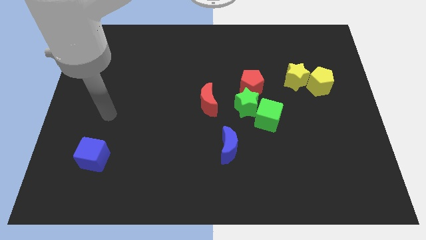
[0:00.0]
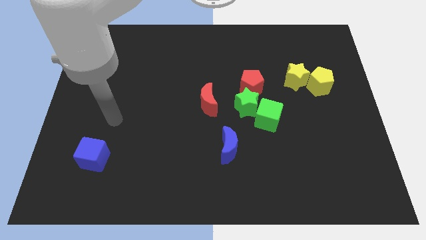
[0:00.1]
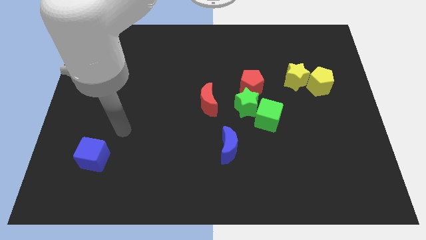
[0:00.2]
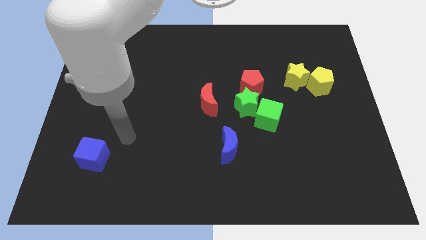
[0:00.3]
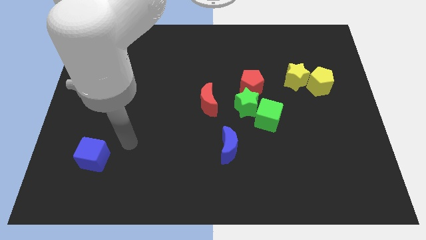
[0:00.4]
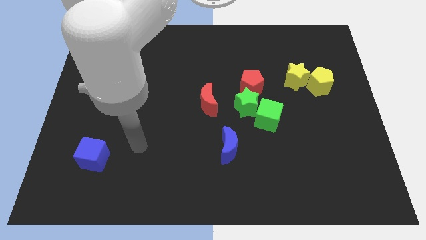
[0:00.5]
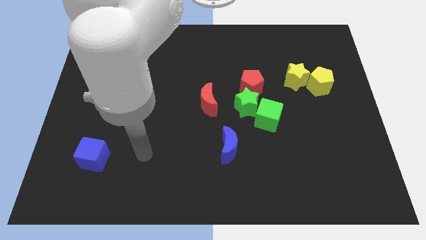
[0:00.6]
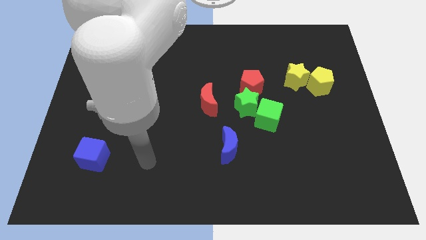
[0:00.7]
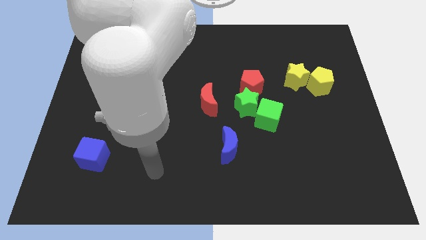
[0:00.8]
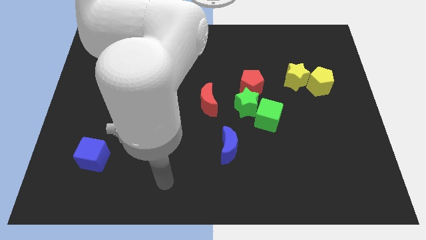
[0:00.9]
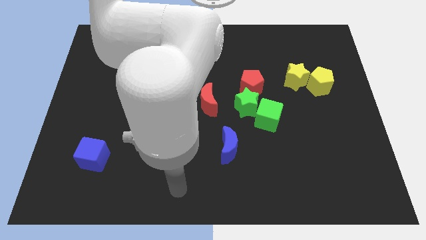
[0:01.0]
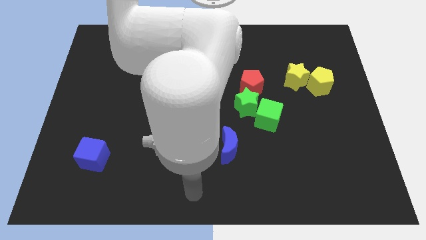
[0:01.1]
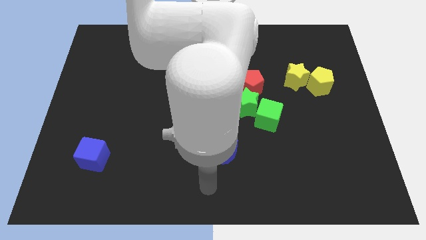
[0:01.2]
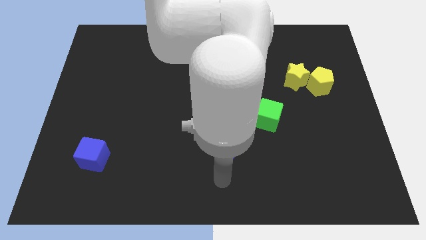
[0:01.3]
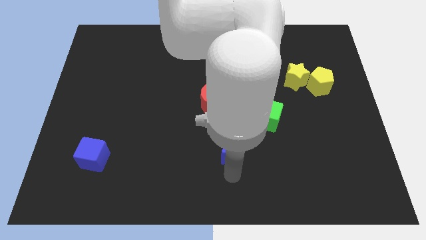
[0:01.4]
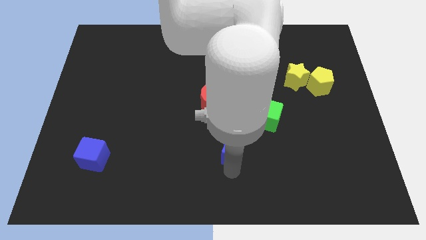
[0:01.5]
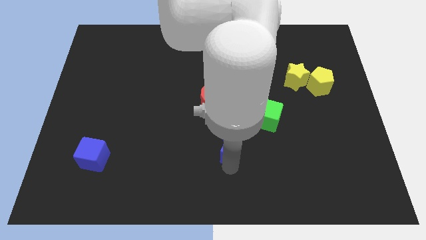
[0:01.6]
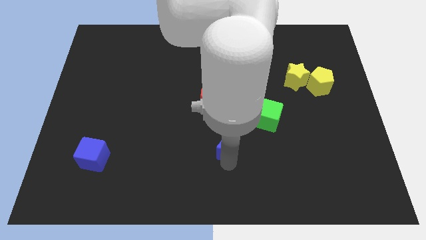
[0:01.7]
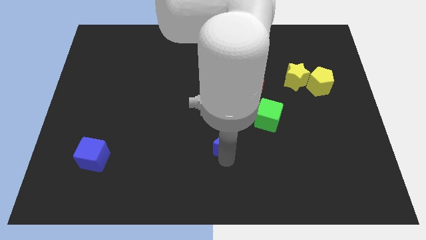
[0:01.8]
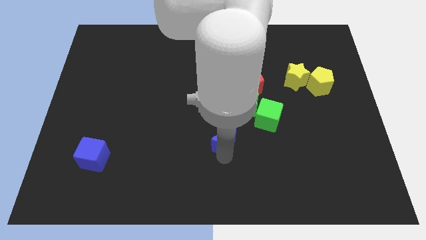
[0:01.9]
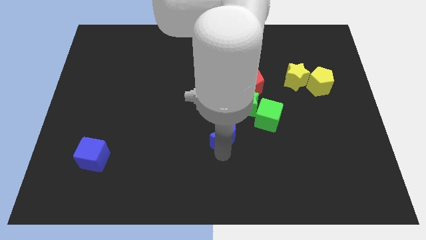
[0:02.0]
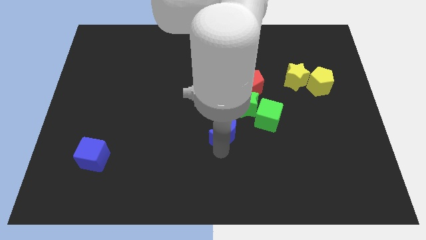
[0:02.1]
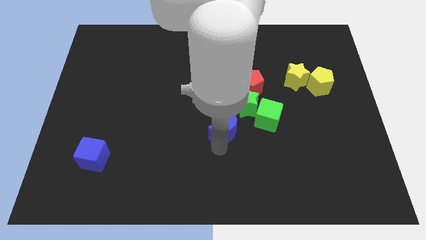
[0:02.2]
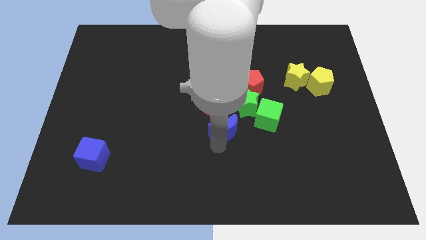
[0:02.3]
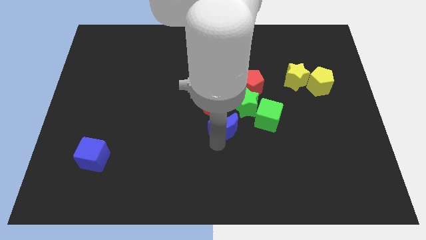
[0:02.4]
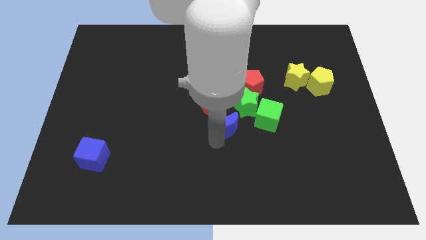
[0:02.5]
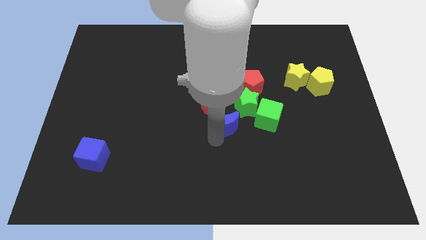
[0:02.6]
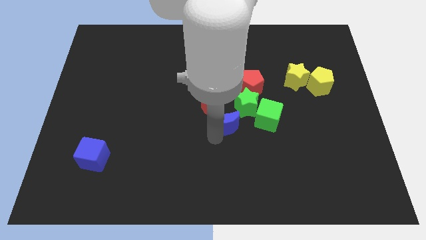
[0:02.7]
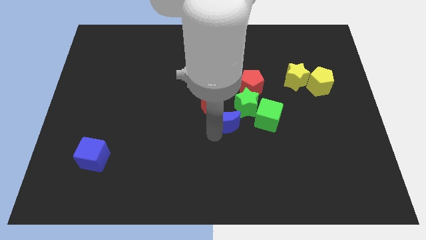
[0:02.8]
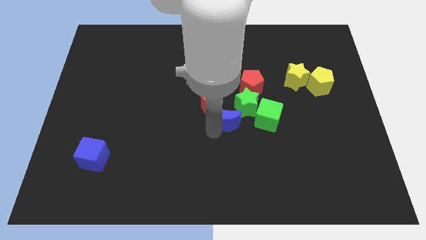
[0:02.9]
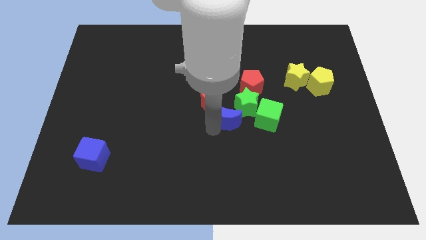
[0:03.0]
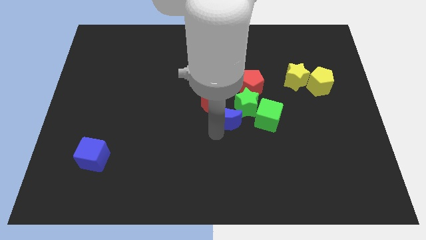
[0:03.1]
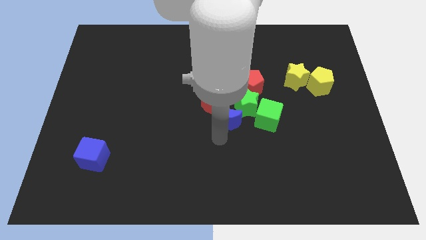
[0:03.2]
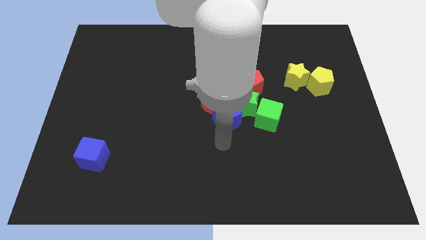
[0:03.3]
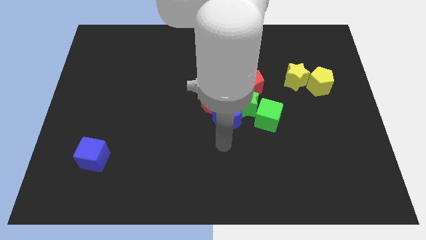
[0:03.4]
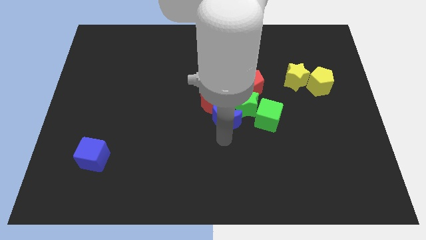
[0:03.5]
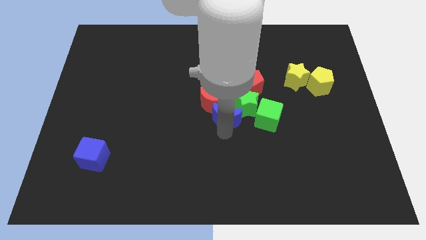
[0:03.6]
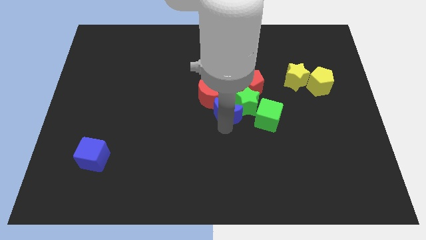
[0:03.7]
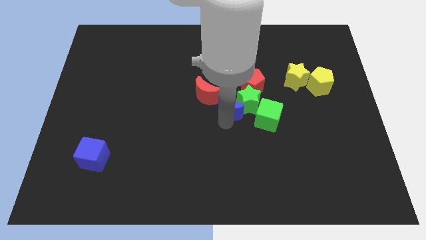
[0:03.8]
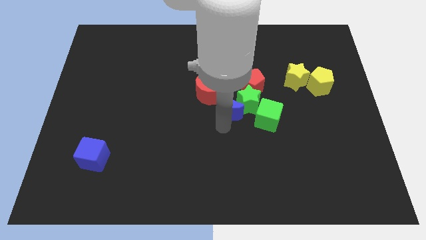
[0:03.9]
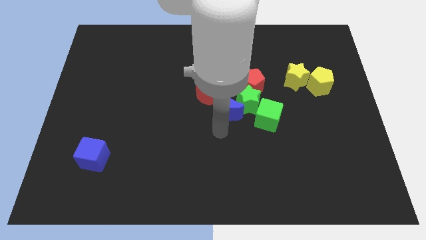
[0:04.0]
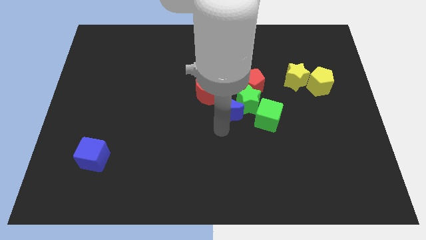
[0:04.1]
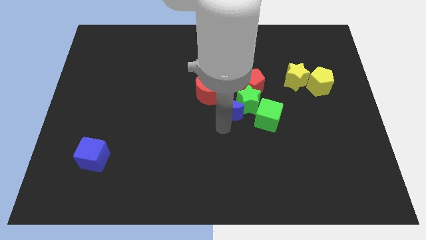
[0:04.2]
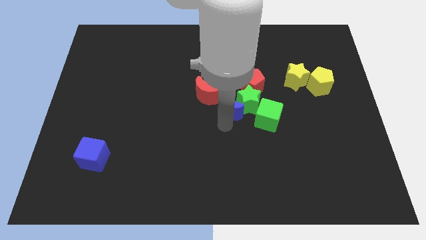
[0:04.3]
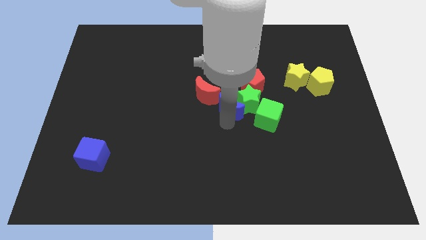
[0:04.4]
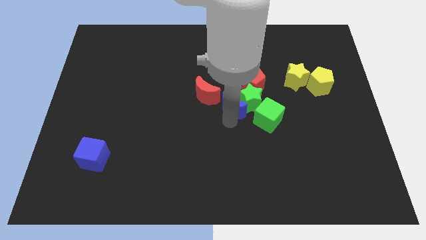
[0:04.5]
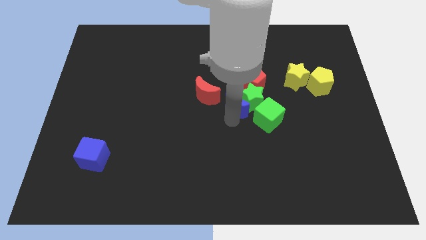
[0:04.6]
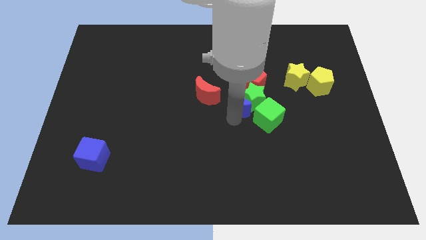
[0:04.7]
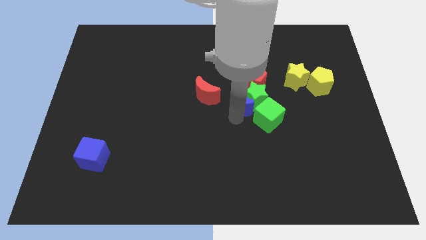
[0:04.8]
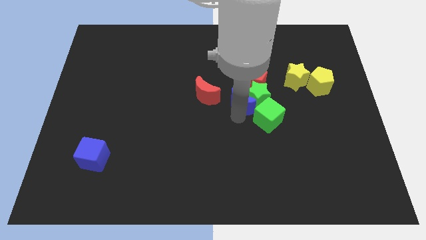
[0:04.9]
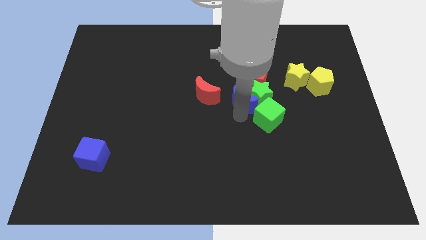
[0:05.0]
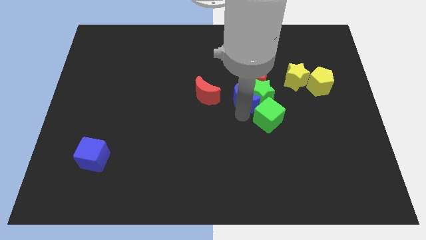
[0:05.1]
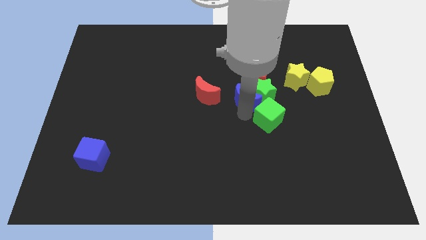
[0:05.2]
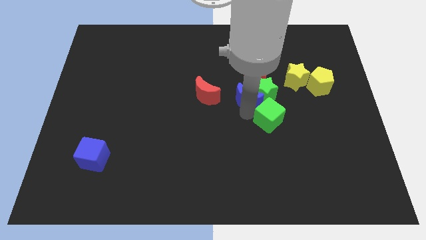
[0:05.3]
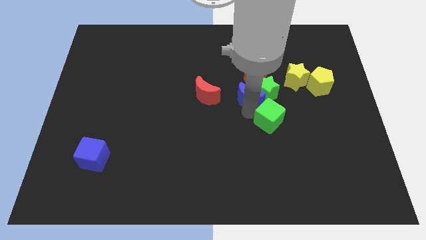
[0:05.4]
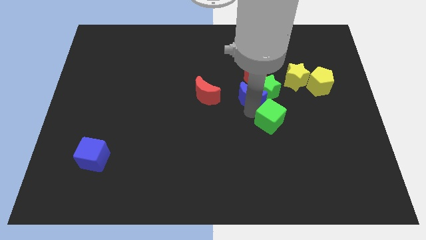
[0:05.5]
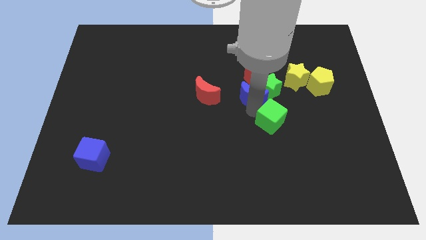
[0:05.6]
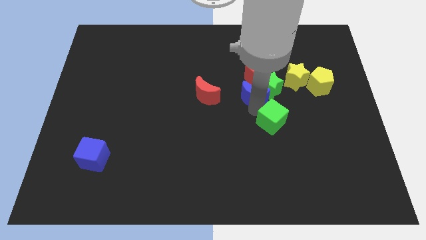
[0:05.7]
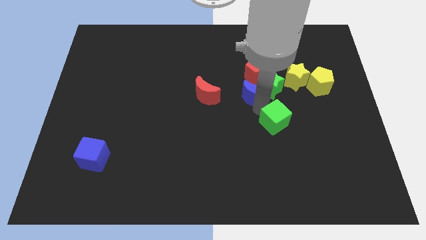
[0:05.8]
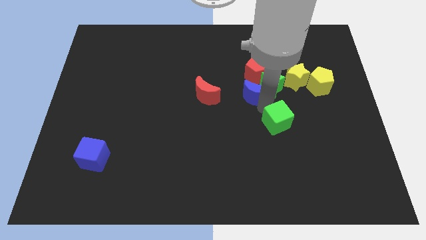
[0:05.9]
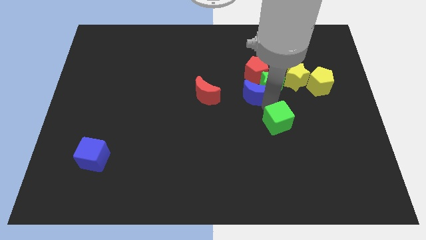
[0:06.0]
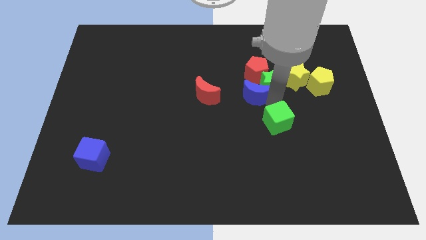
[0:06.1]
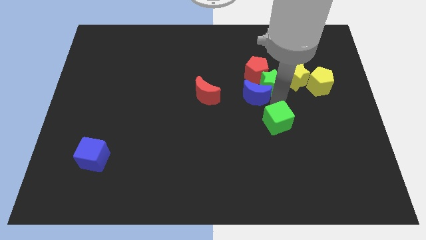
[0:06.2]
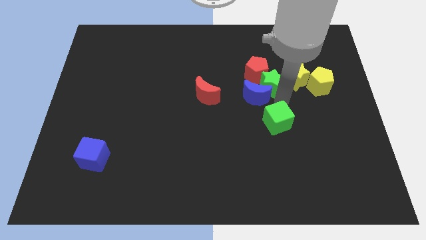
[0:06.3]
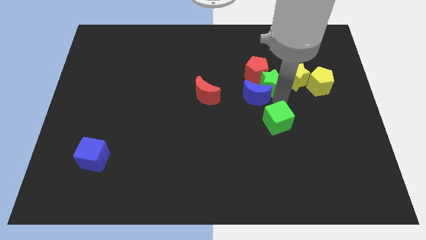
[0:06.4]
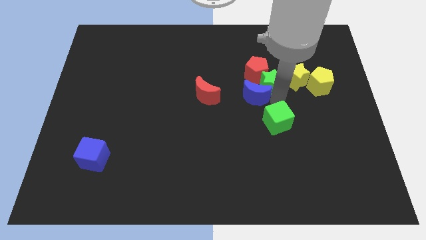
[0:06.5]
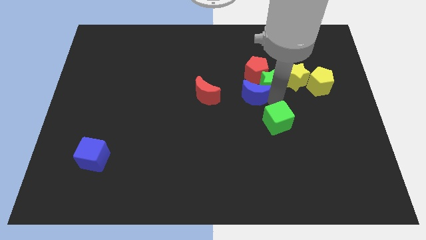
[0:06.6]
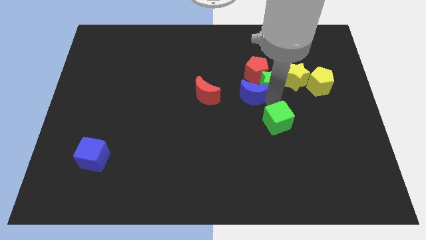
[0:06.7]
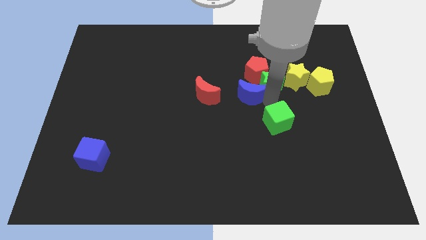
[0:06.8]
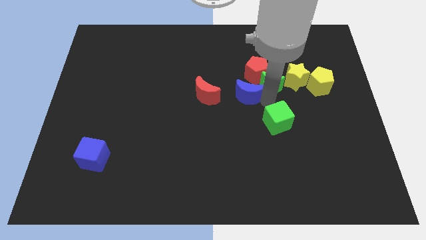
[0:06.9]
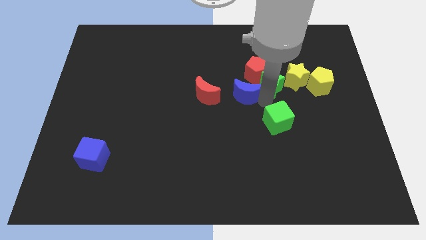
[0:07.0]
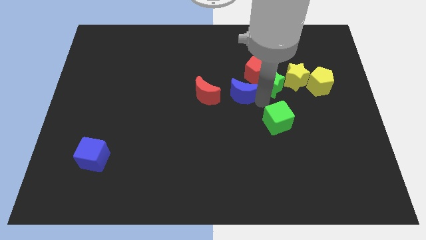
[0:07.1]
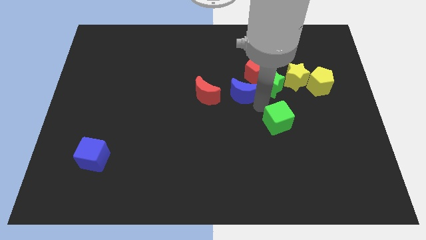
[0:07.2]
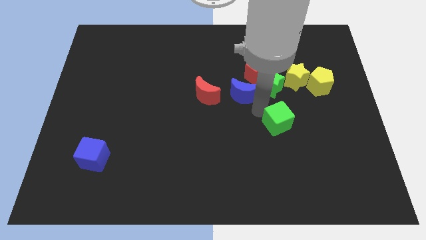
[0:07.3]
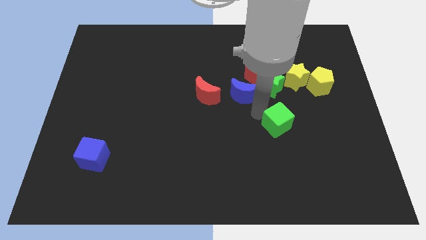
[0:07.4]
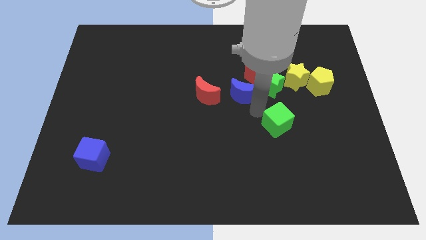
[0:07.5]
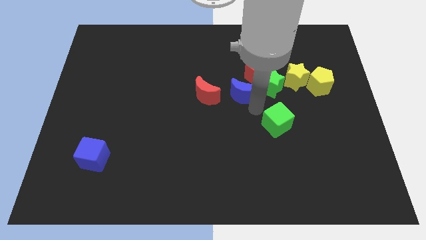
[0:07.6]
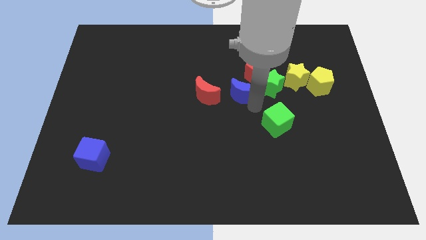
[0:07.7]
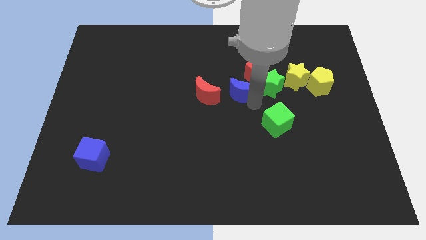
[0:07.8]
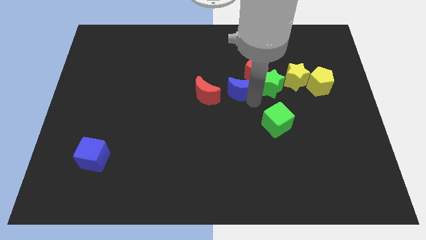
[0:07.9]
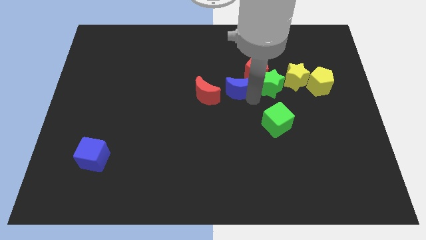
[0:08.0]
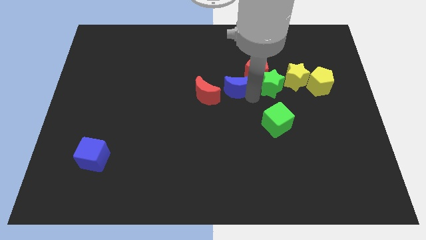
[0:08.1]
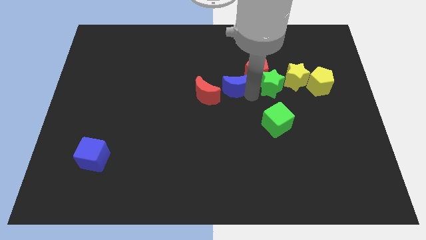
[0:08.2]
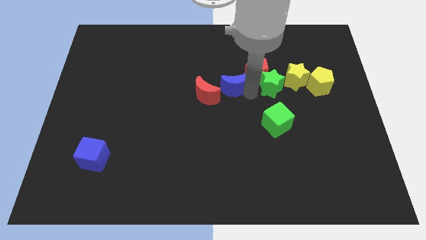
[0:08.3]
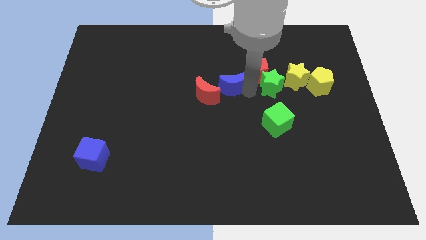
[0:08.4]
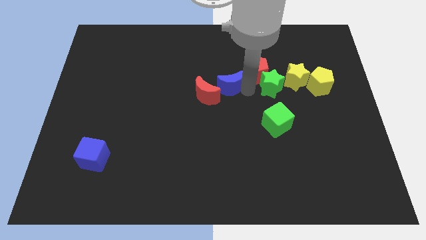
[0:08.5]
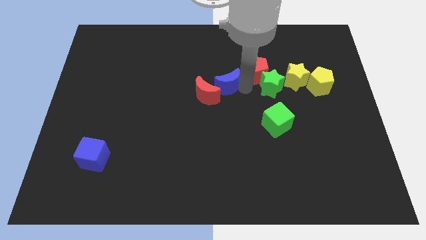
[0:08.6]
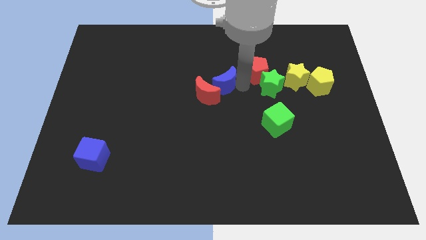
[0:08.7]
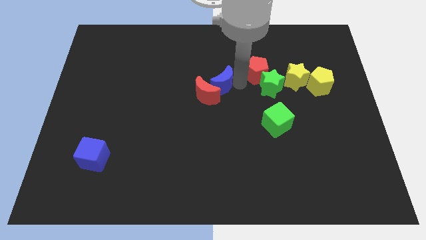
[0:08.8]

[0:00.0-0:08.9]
put the blue moon above the red moon
